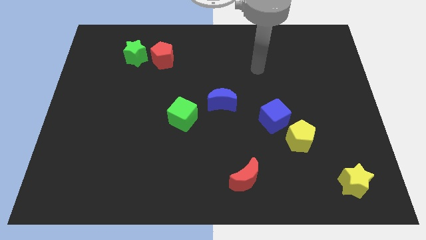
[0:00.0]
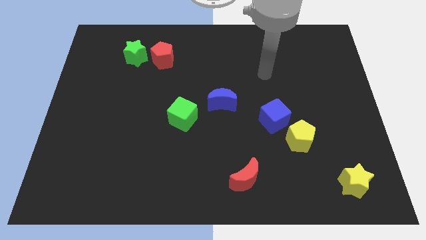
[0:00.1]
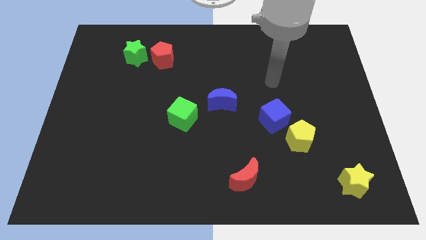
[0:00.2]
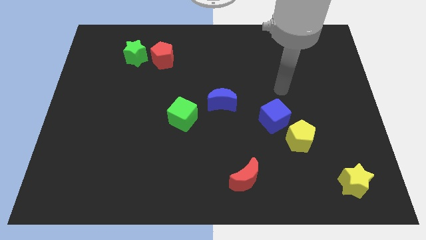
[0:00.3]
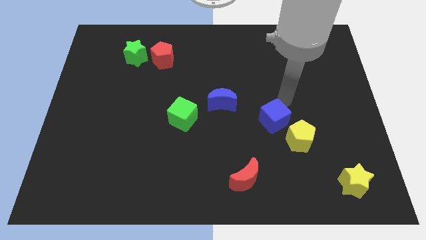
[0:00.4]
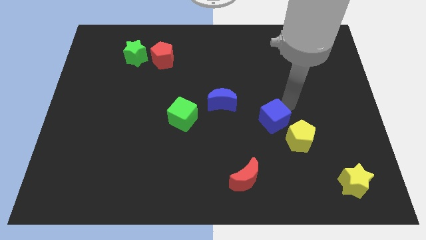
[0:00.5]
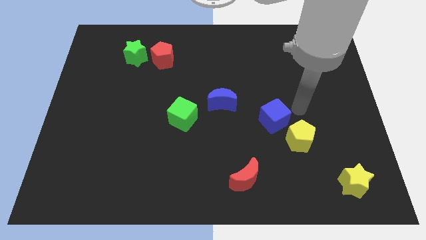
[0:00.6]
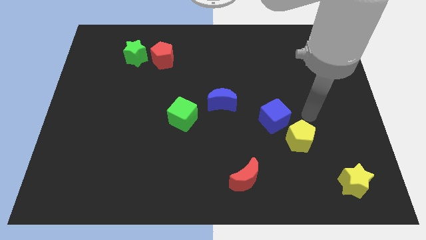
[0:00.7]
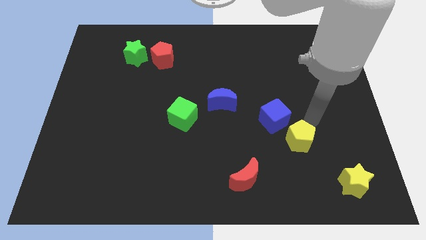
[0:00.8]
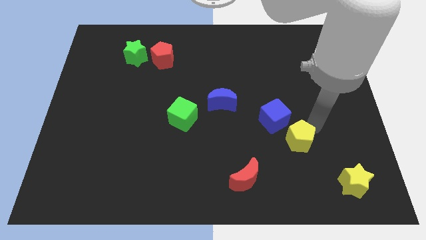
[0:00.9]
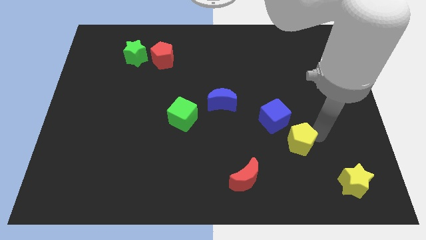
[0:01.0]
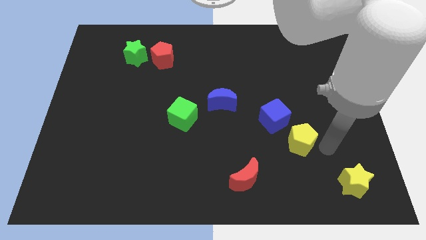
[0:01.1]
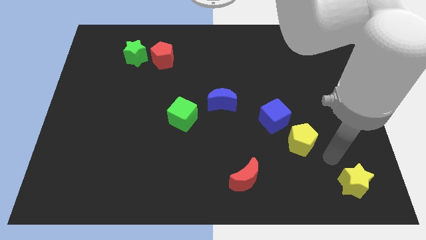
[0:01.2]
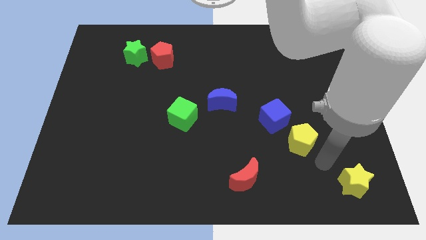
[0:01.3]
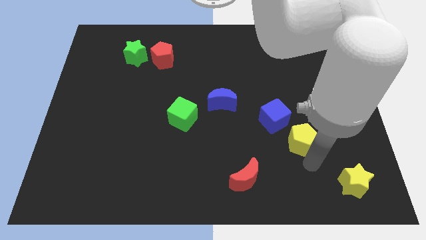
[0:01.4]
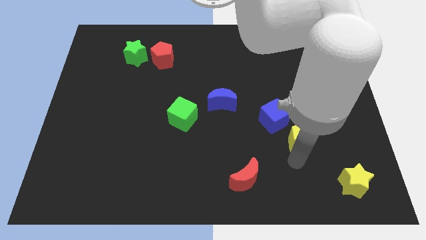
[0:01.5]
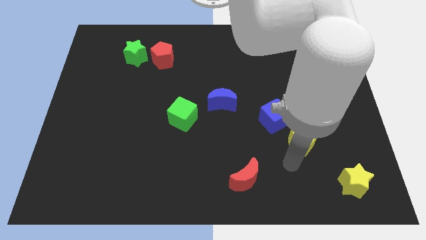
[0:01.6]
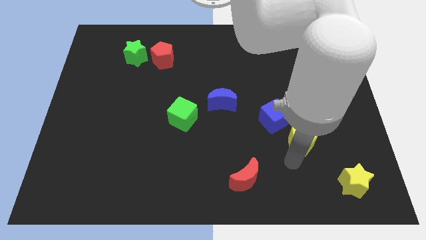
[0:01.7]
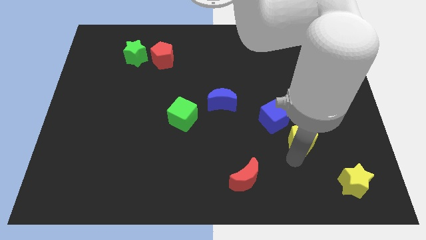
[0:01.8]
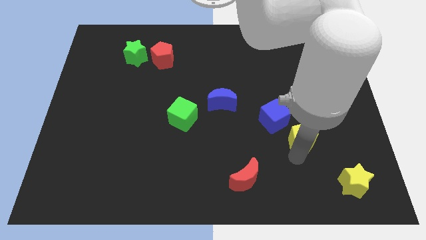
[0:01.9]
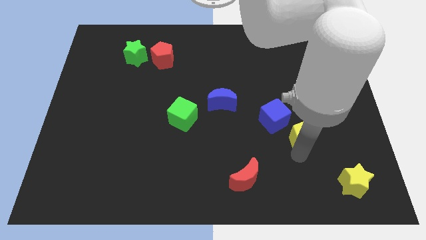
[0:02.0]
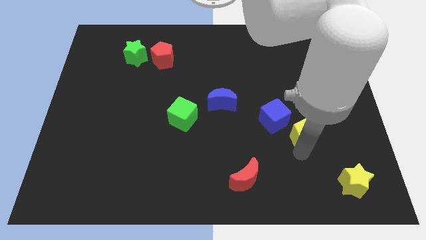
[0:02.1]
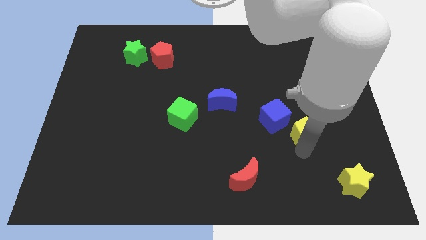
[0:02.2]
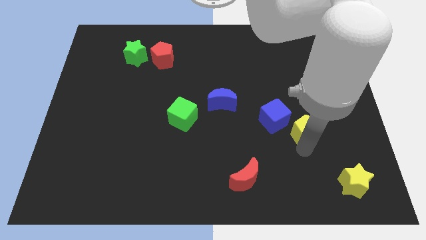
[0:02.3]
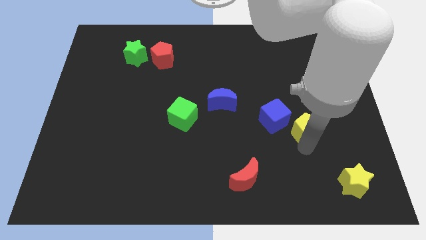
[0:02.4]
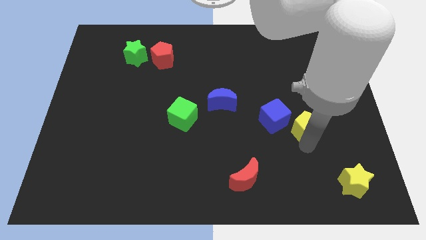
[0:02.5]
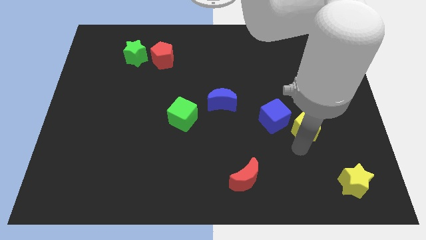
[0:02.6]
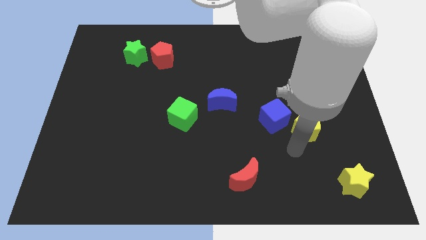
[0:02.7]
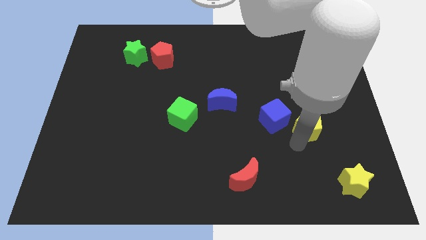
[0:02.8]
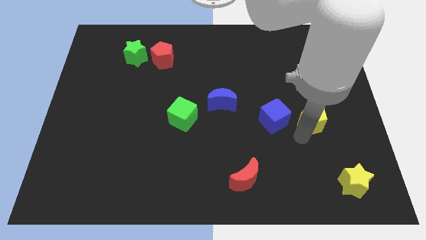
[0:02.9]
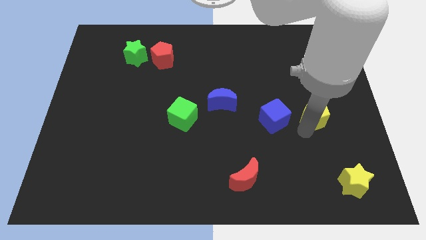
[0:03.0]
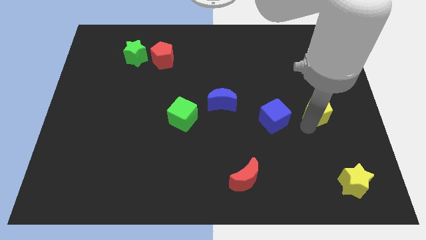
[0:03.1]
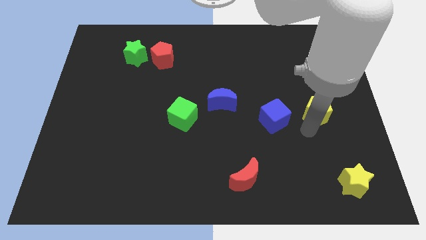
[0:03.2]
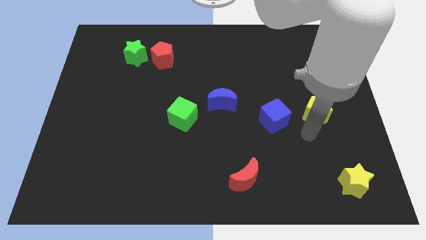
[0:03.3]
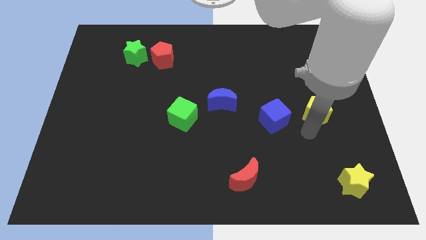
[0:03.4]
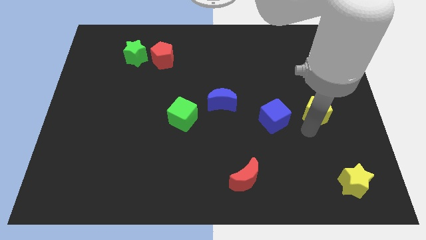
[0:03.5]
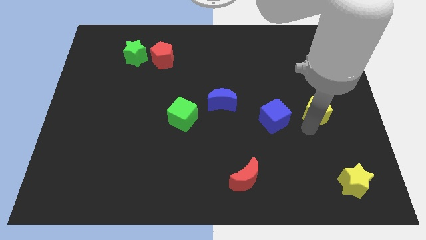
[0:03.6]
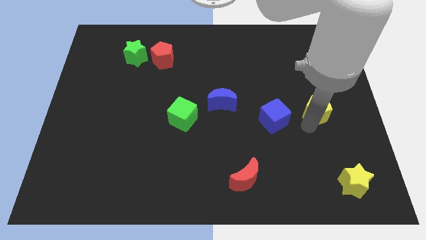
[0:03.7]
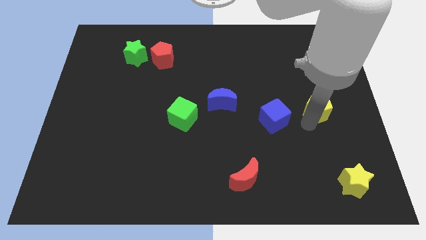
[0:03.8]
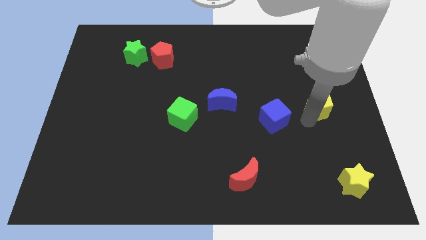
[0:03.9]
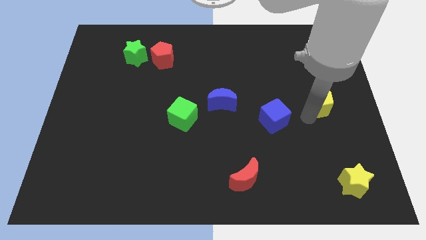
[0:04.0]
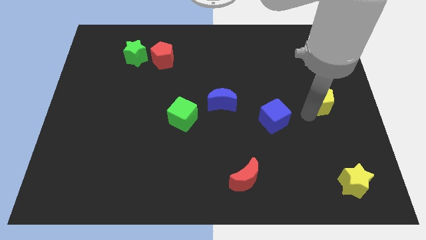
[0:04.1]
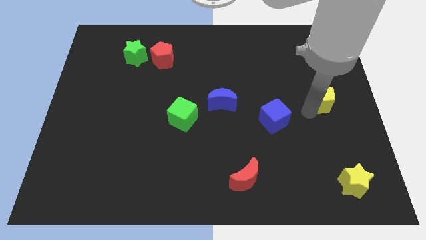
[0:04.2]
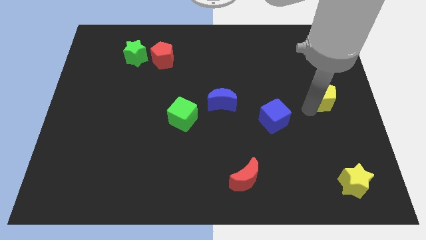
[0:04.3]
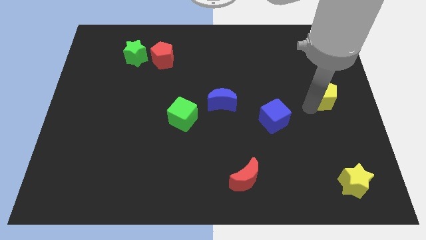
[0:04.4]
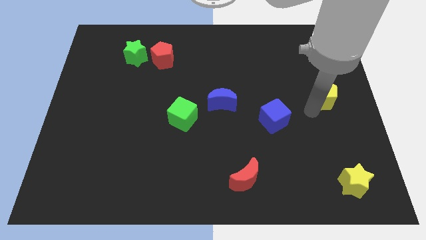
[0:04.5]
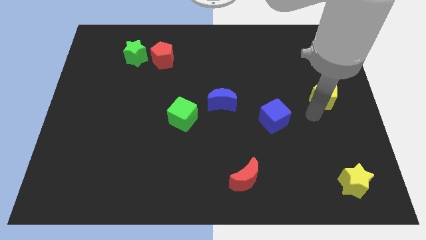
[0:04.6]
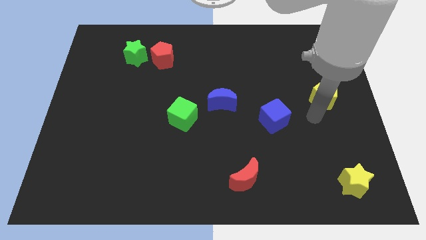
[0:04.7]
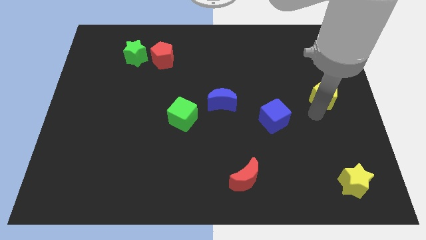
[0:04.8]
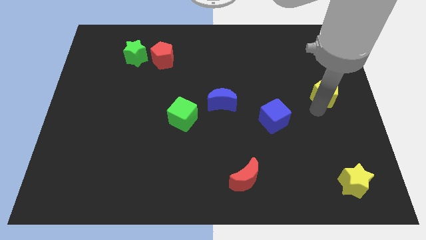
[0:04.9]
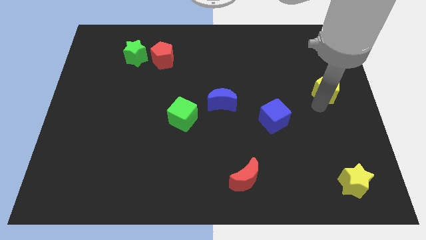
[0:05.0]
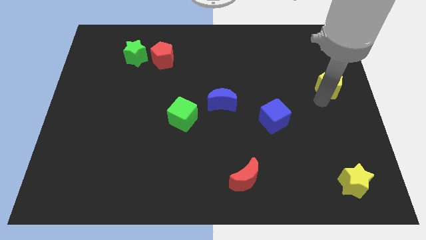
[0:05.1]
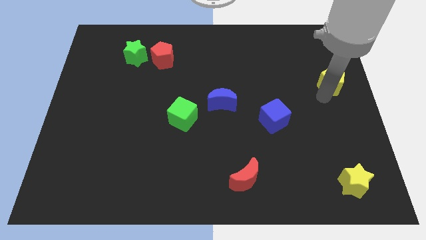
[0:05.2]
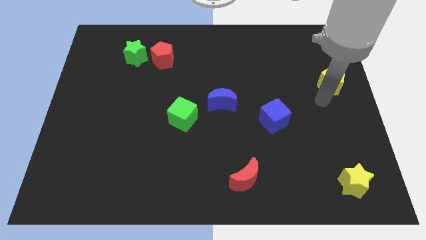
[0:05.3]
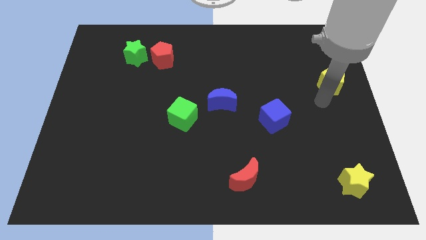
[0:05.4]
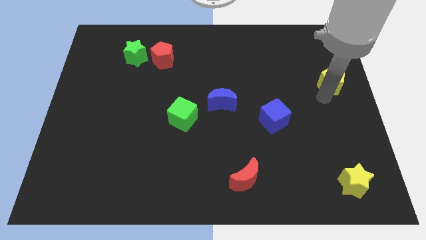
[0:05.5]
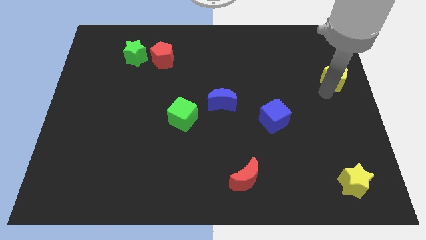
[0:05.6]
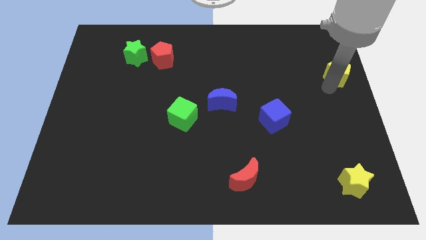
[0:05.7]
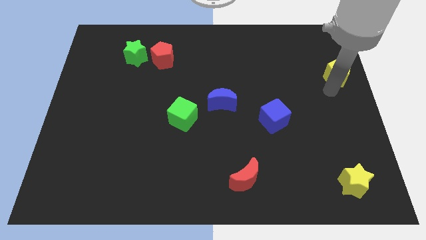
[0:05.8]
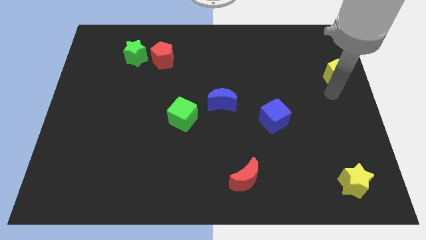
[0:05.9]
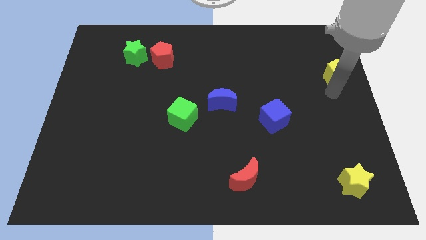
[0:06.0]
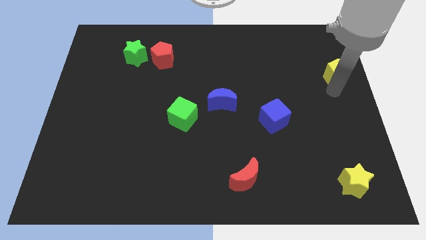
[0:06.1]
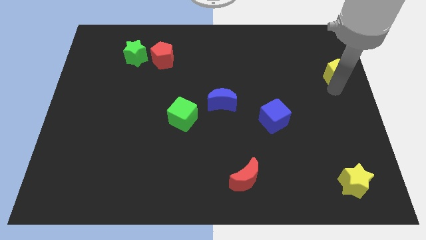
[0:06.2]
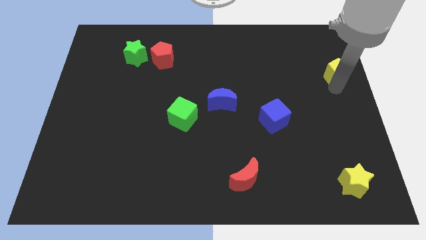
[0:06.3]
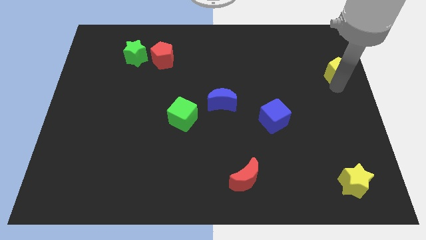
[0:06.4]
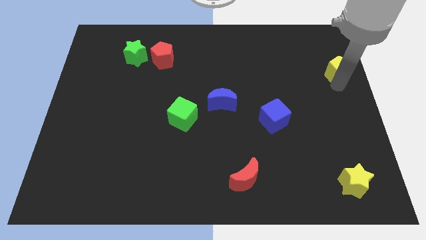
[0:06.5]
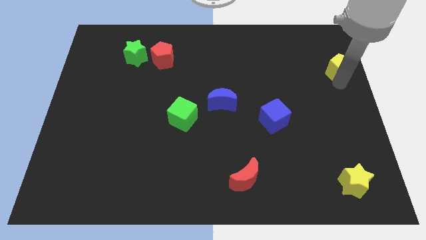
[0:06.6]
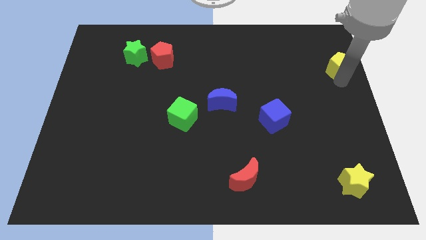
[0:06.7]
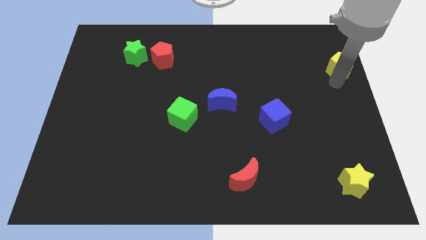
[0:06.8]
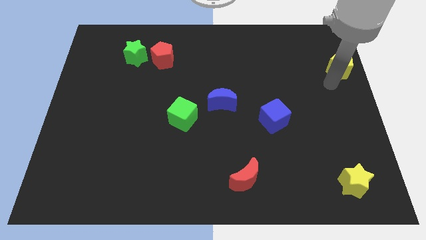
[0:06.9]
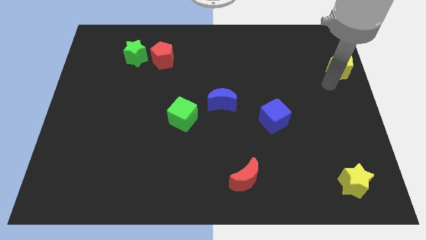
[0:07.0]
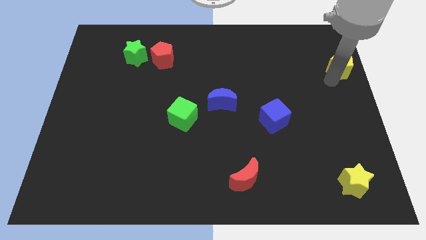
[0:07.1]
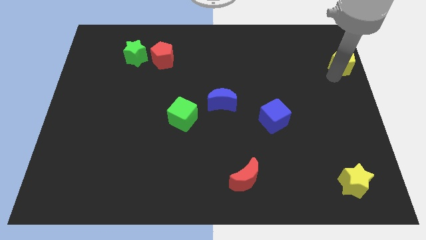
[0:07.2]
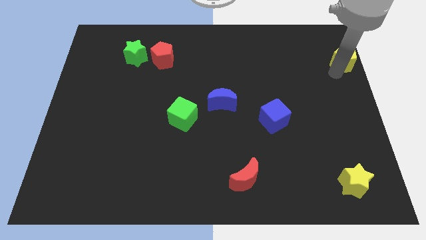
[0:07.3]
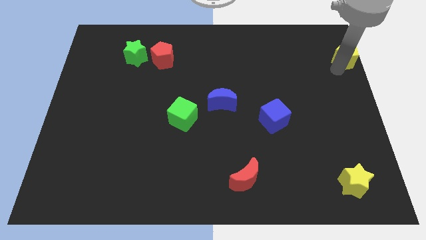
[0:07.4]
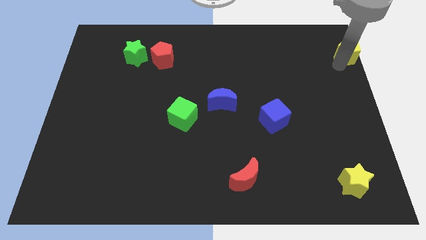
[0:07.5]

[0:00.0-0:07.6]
push the yellow pentagon to the top right
